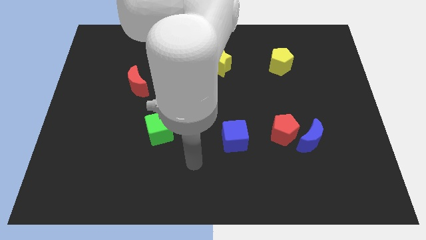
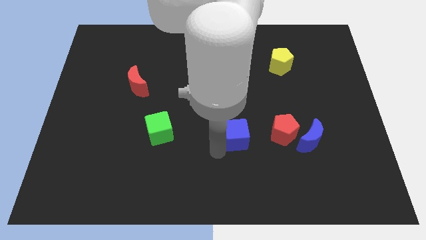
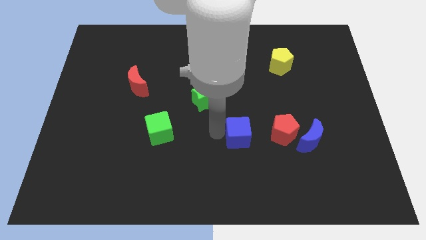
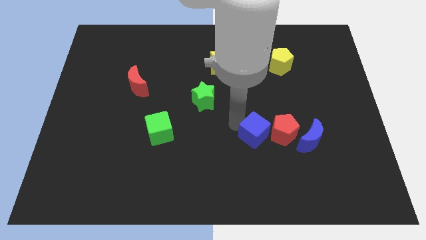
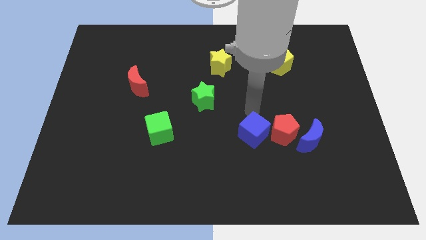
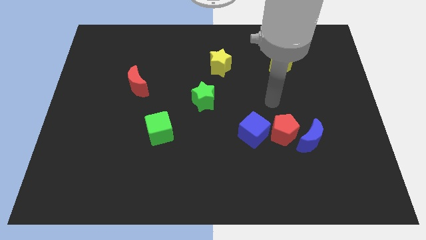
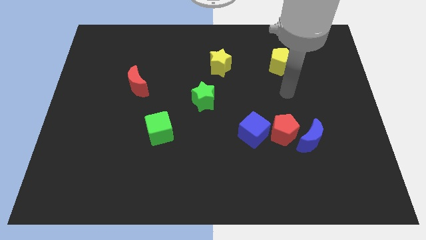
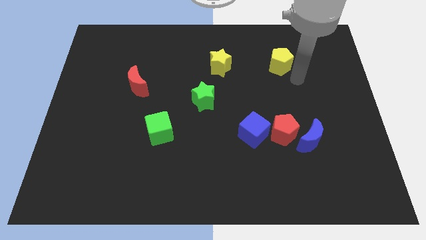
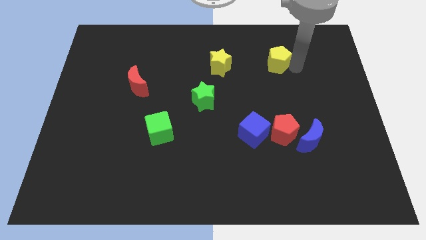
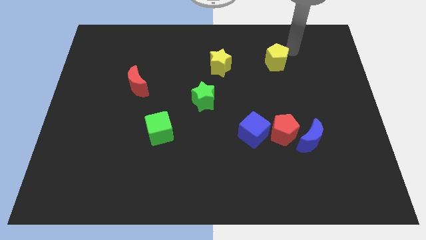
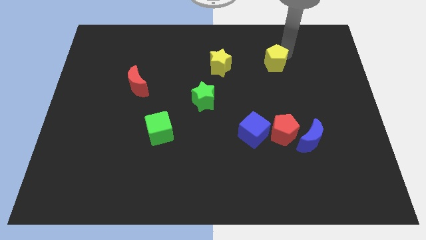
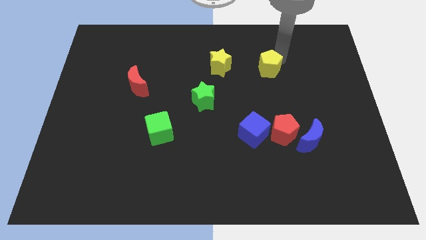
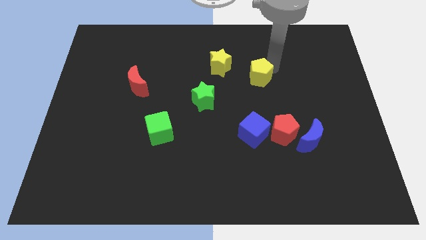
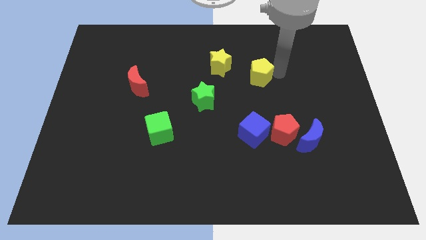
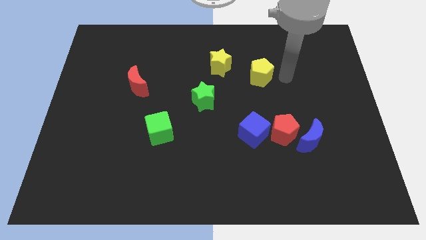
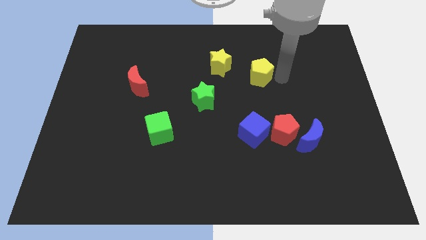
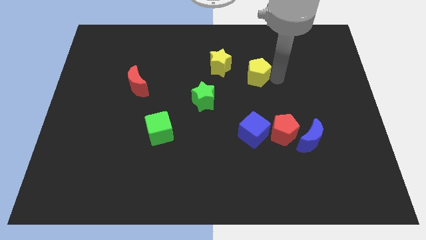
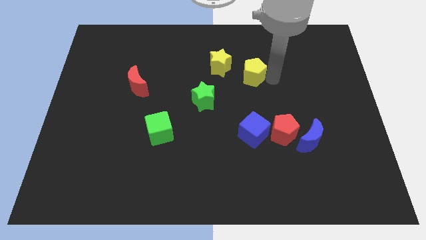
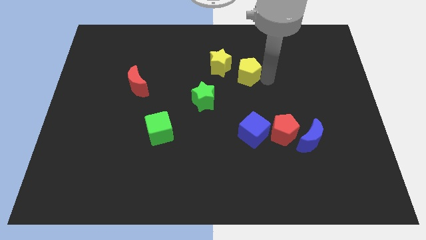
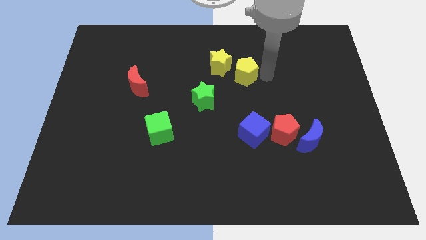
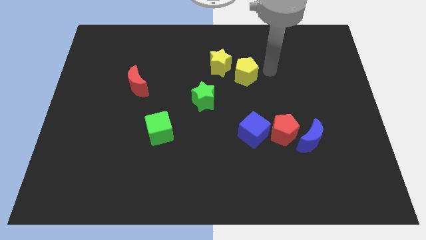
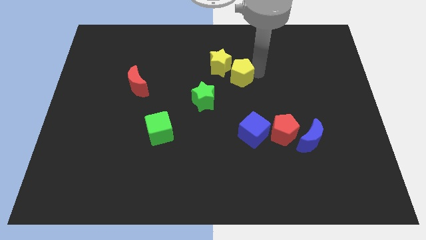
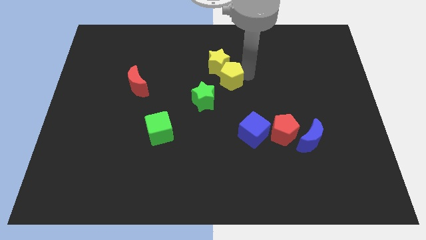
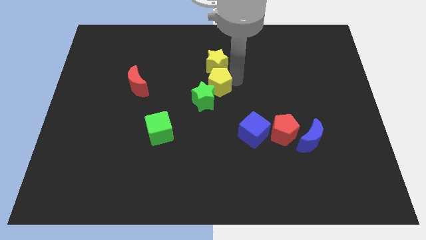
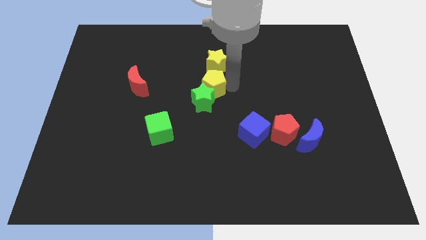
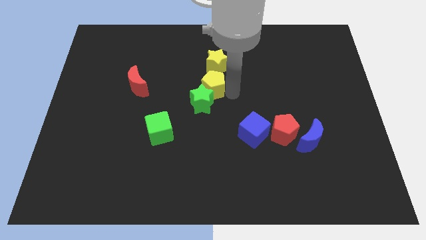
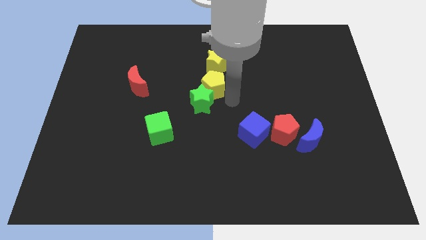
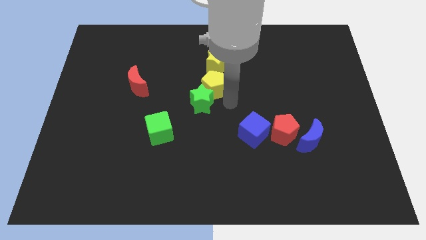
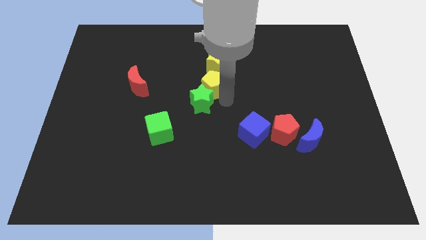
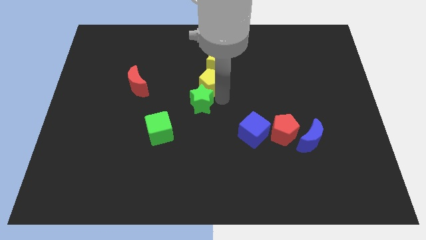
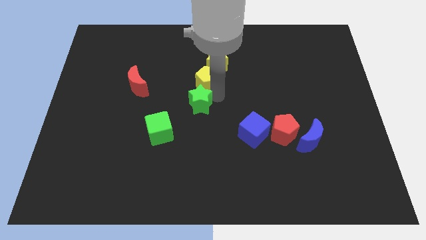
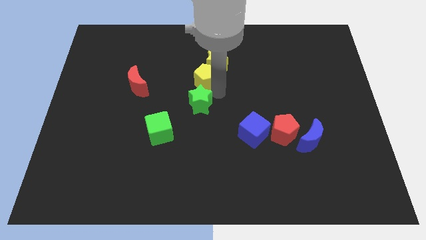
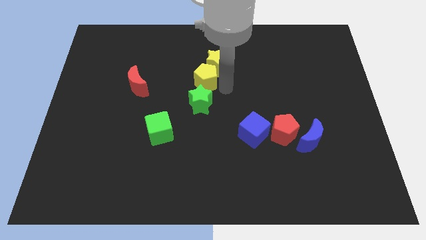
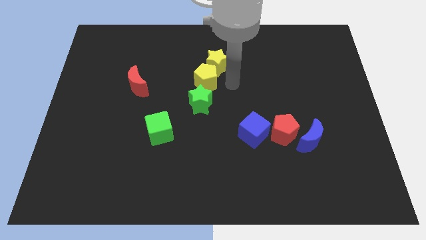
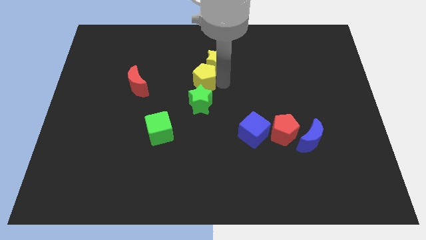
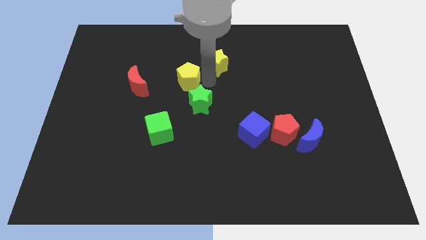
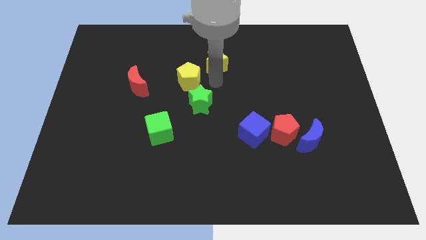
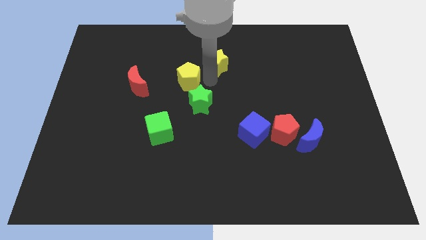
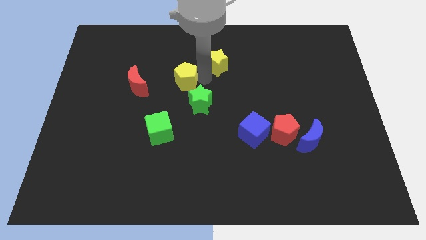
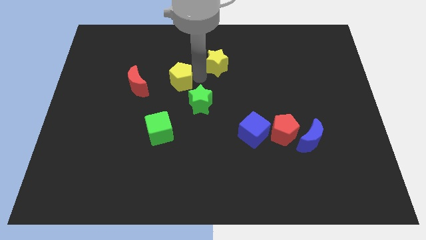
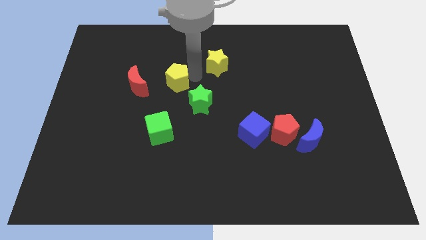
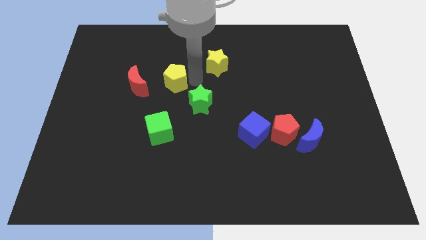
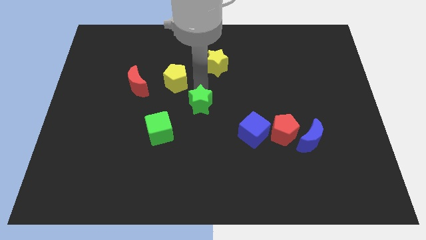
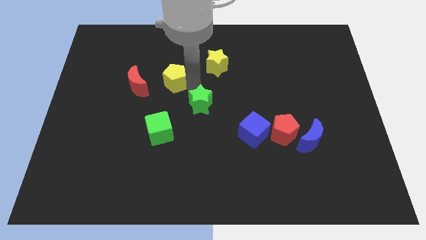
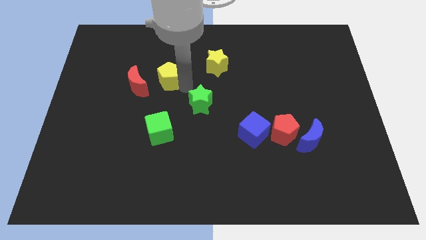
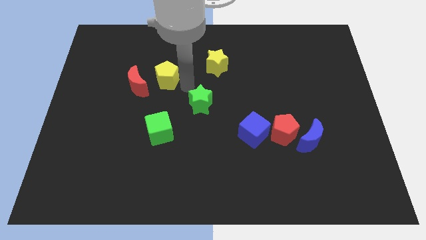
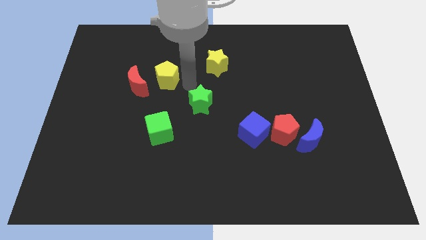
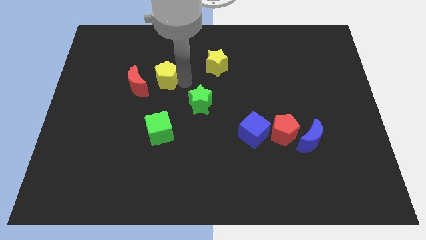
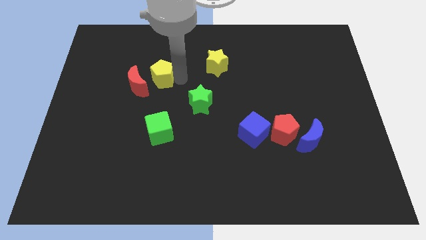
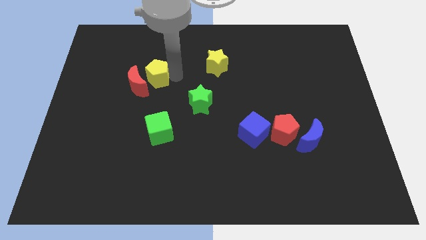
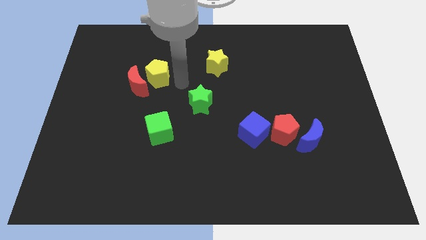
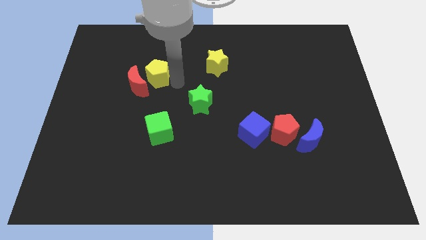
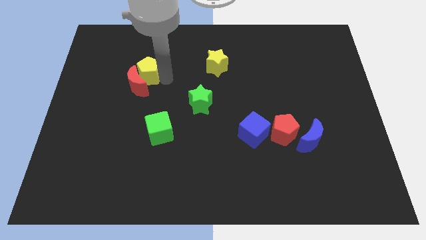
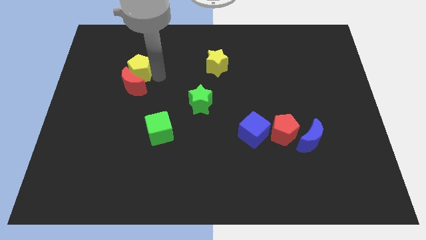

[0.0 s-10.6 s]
push the yellow pentagon to the top left of the red moon

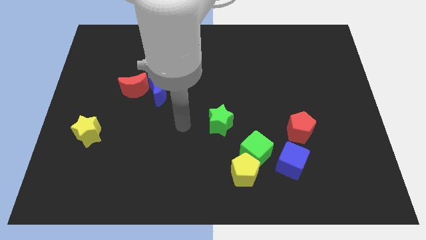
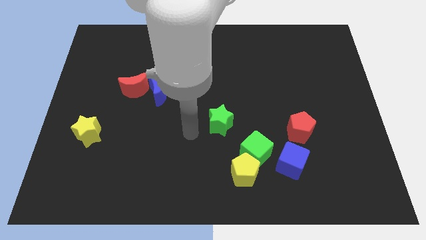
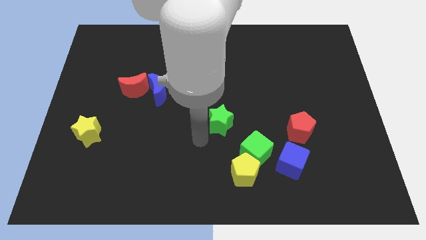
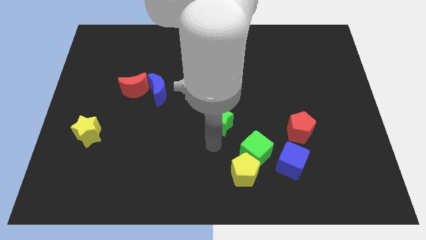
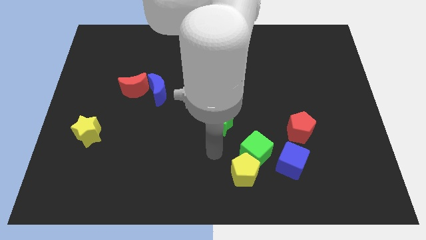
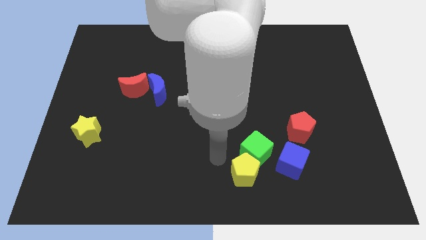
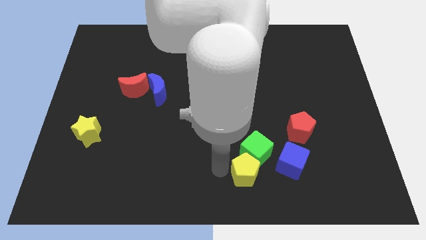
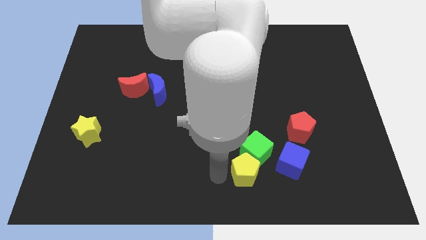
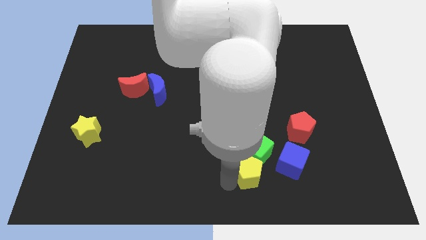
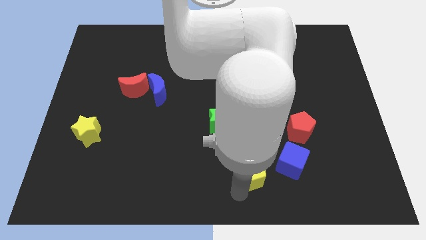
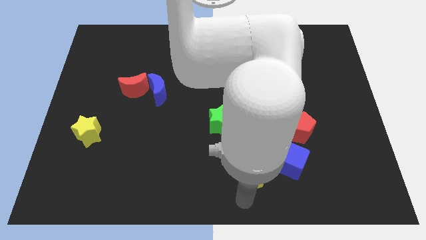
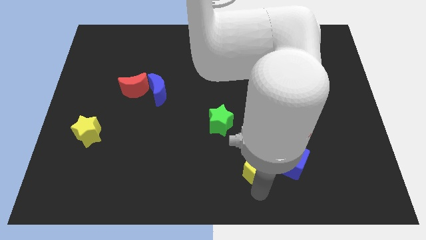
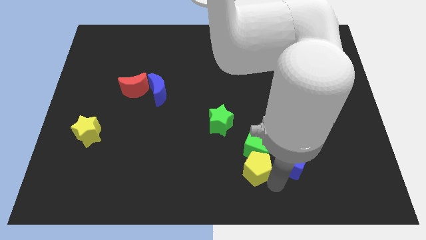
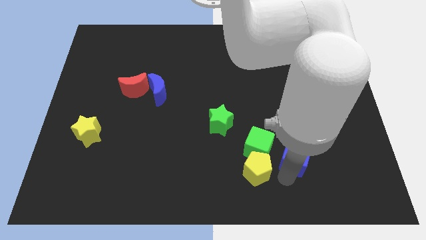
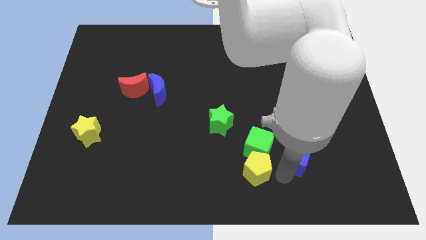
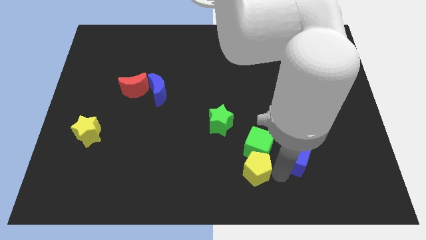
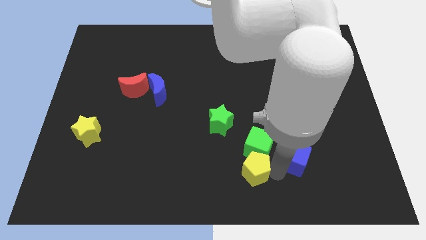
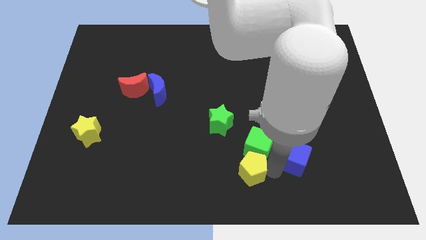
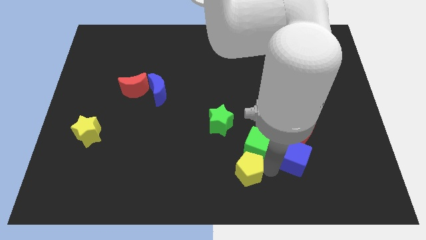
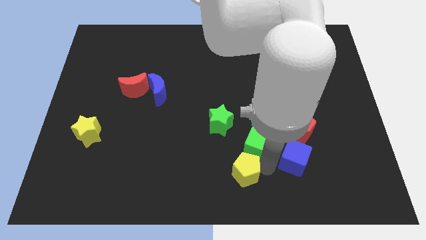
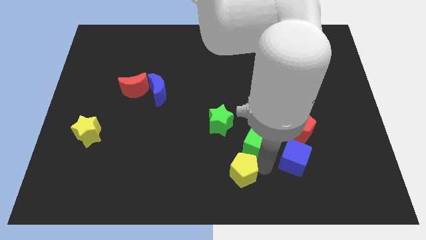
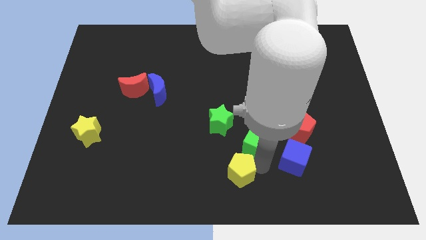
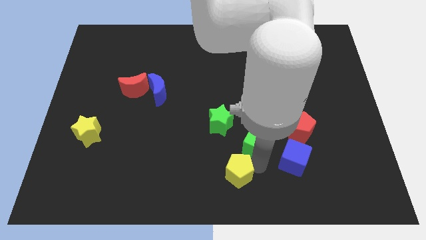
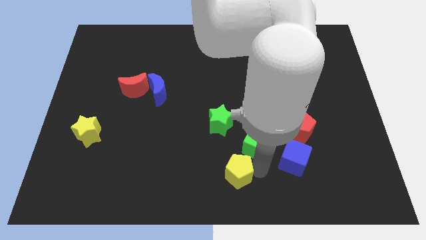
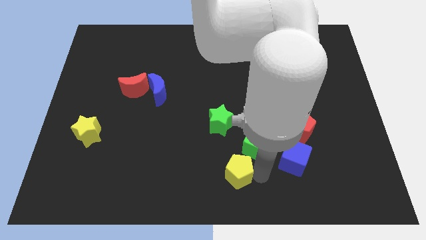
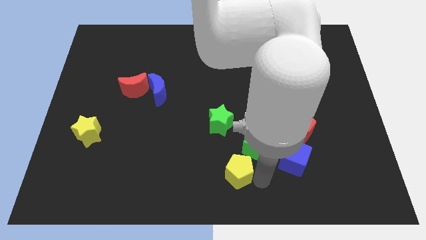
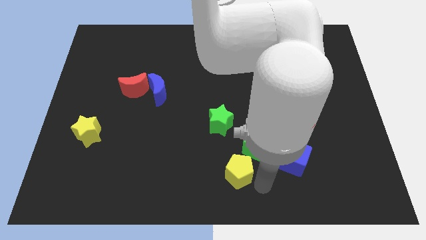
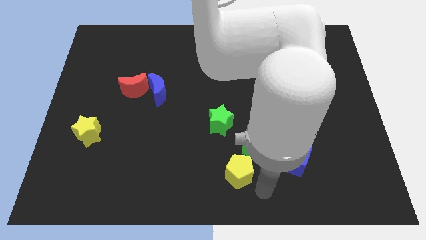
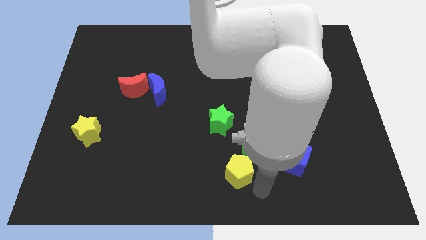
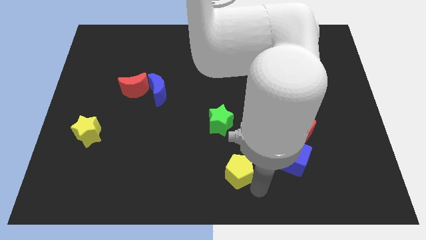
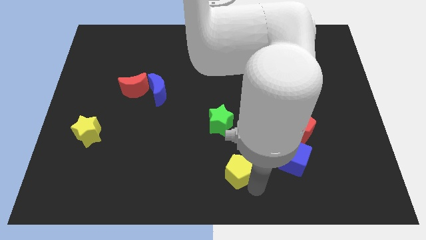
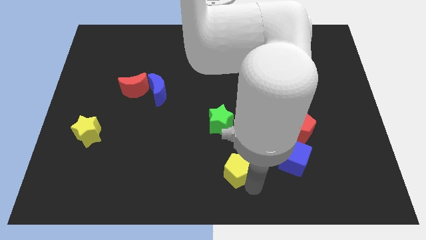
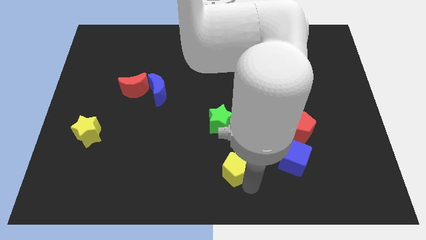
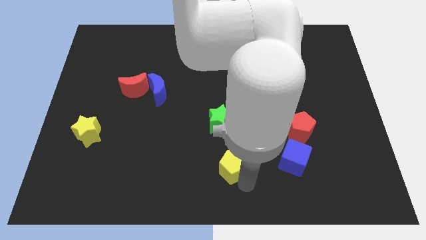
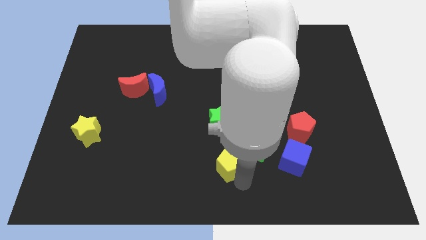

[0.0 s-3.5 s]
slide the yellow pentagon to the left side of the green cube
